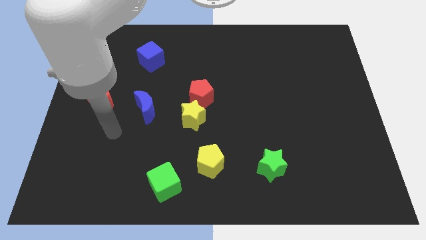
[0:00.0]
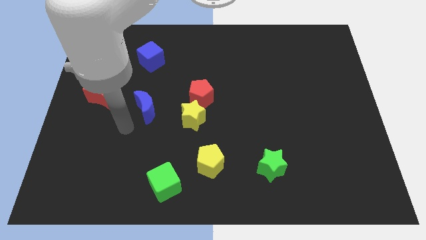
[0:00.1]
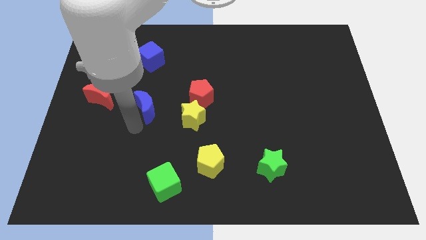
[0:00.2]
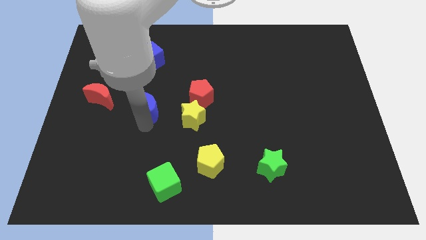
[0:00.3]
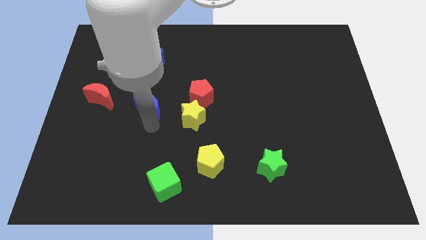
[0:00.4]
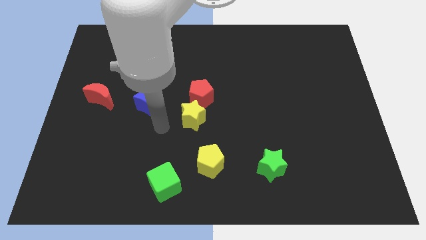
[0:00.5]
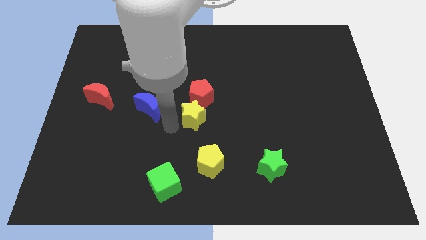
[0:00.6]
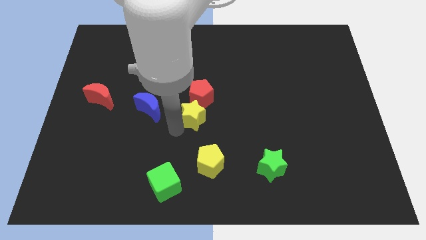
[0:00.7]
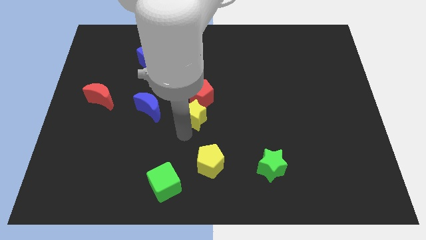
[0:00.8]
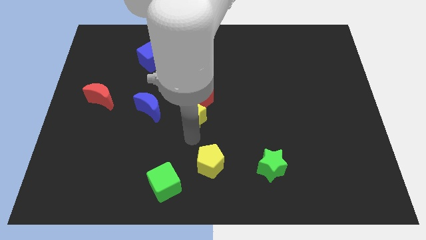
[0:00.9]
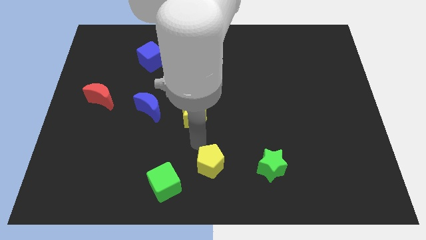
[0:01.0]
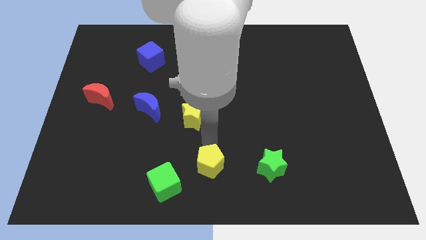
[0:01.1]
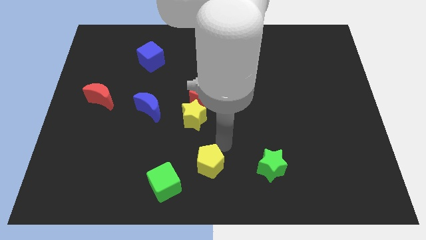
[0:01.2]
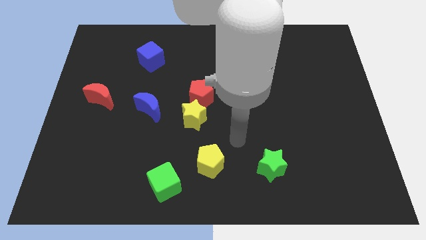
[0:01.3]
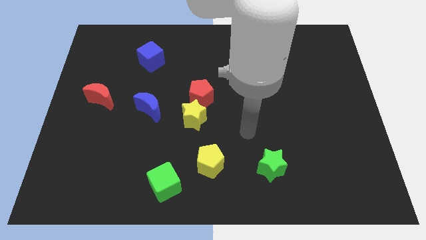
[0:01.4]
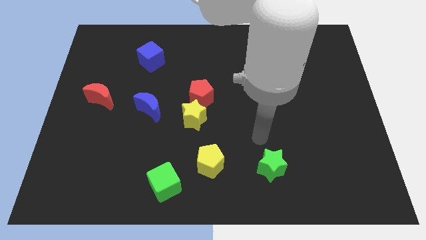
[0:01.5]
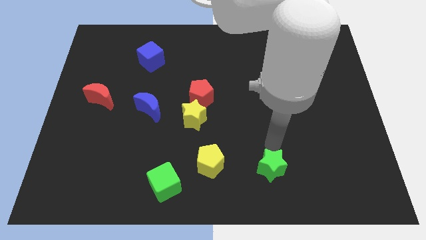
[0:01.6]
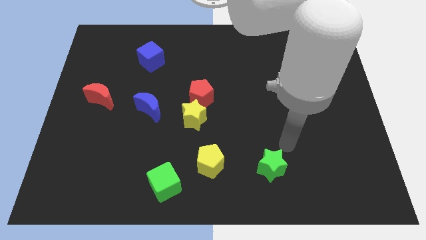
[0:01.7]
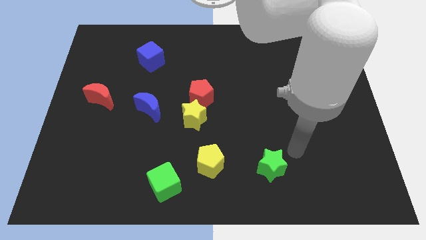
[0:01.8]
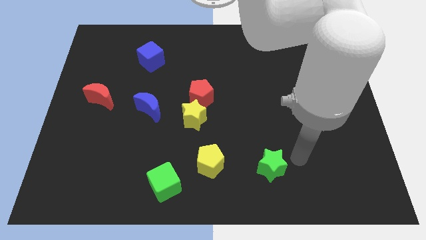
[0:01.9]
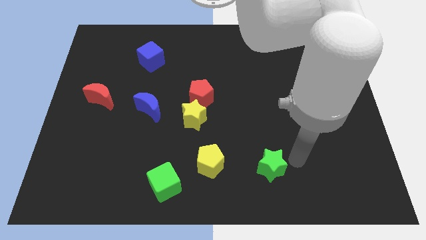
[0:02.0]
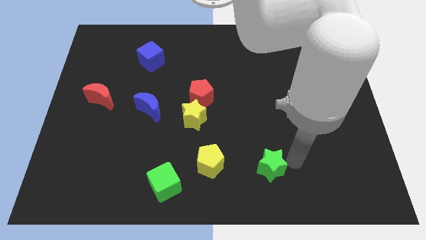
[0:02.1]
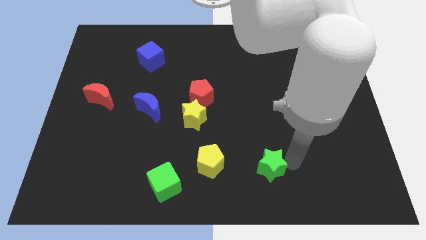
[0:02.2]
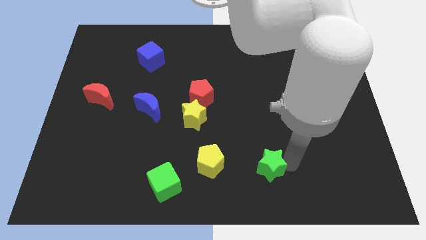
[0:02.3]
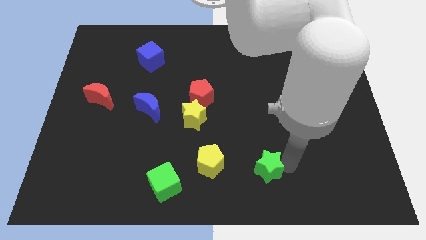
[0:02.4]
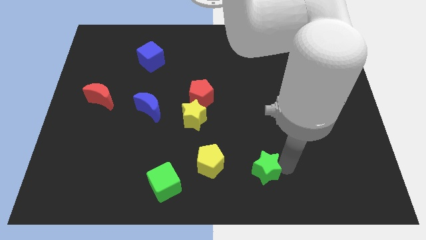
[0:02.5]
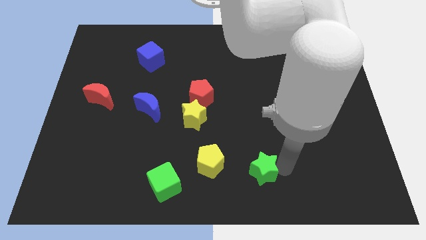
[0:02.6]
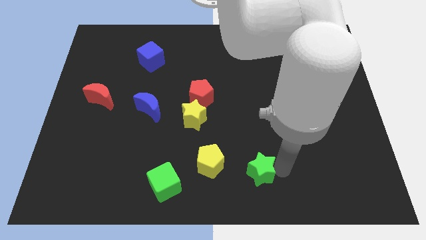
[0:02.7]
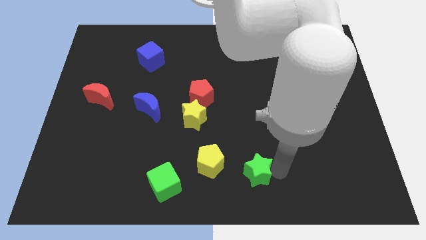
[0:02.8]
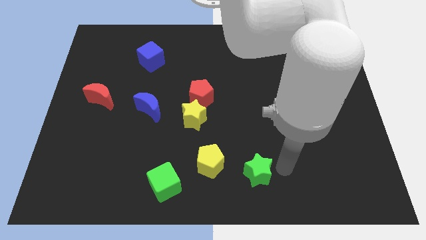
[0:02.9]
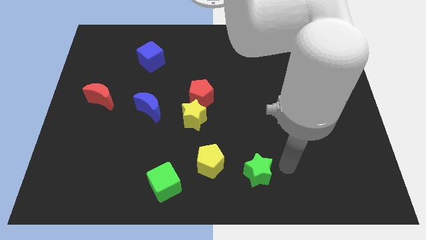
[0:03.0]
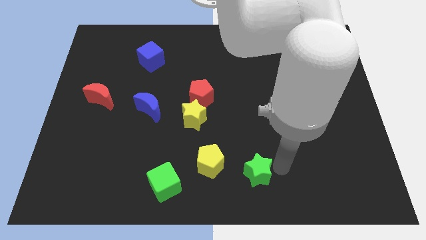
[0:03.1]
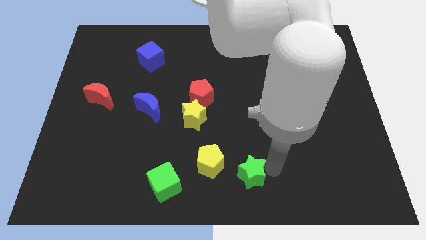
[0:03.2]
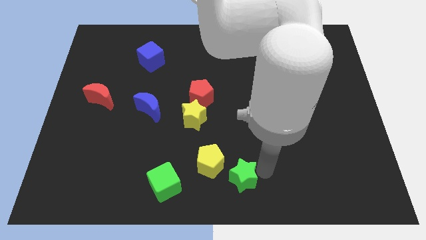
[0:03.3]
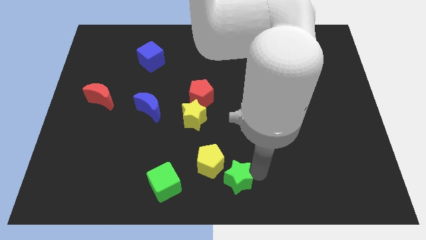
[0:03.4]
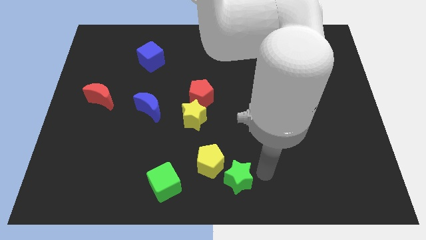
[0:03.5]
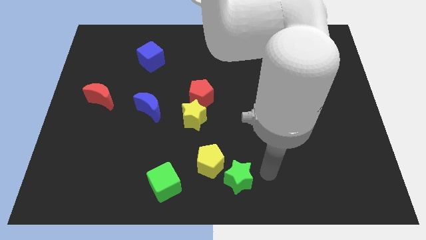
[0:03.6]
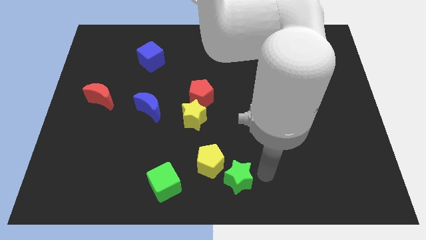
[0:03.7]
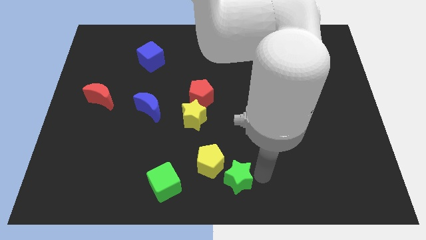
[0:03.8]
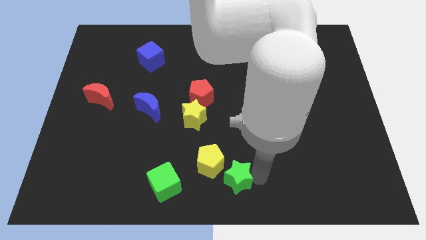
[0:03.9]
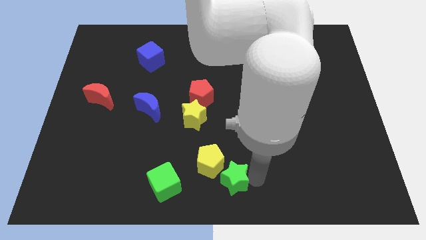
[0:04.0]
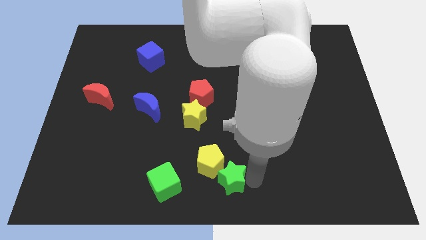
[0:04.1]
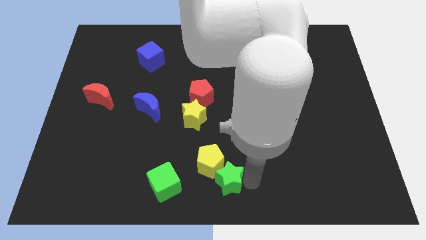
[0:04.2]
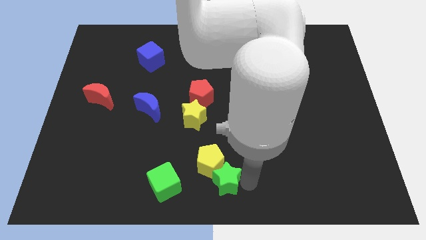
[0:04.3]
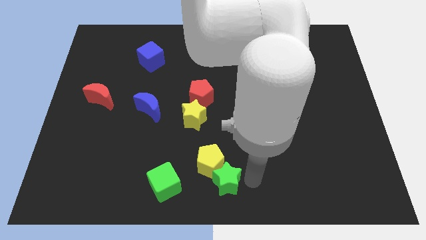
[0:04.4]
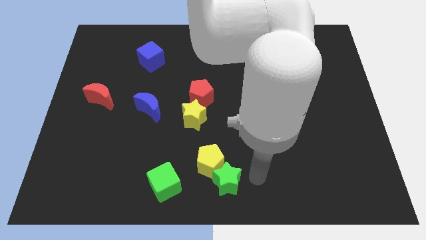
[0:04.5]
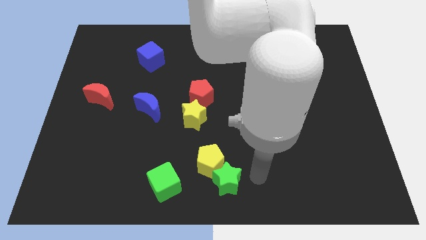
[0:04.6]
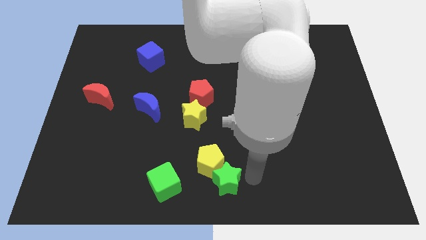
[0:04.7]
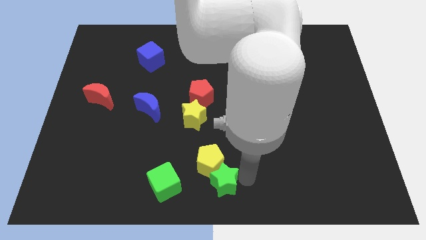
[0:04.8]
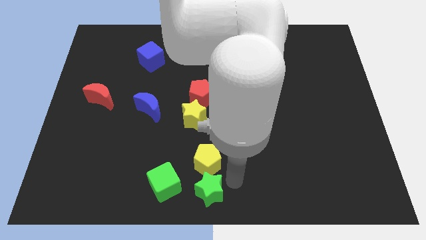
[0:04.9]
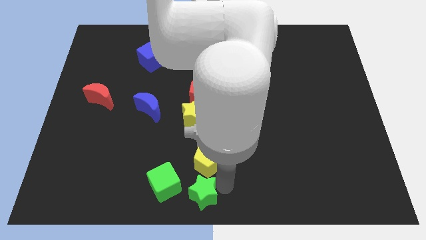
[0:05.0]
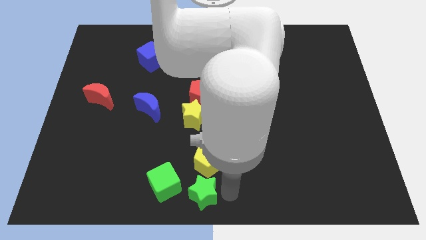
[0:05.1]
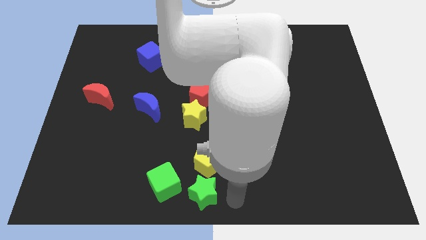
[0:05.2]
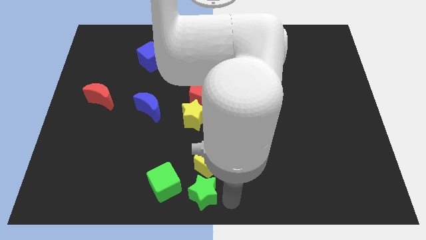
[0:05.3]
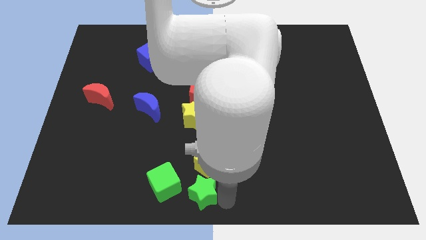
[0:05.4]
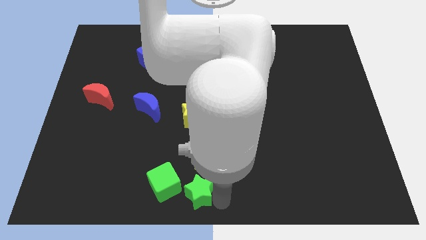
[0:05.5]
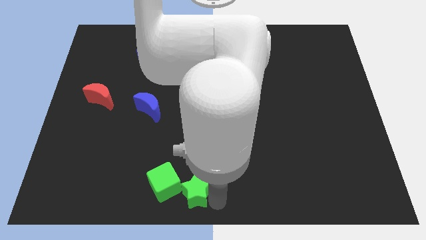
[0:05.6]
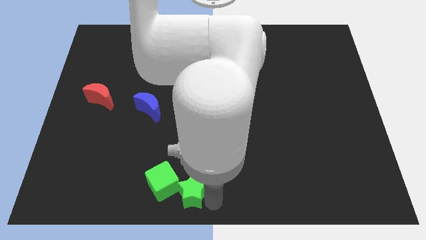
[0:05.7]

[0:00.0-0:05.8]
slide the green star close to the green cube

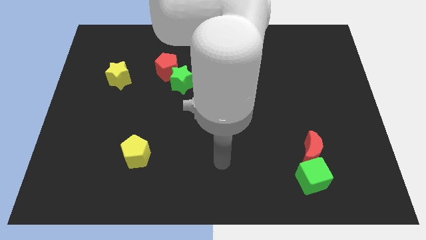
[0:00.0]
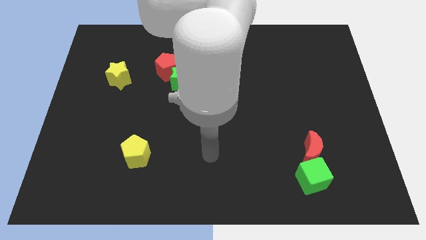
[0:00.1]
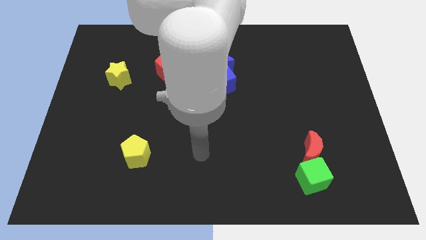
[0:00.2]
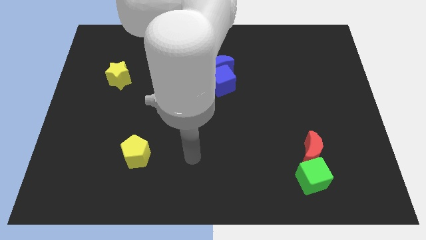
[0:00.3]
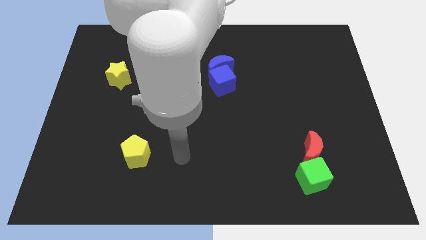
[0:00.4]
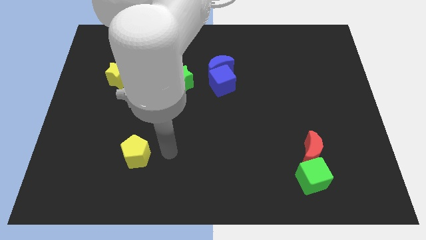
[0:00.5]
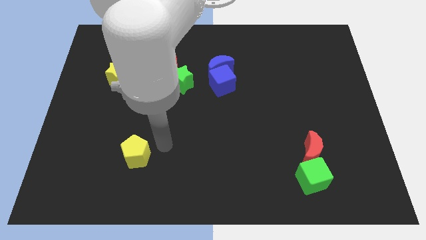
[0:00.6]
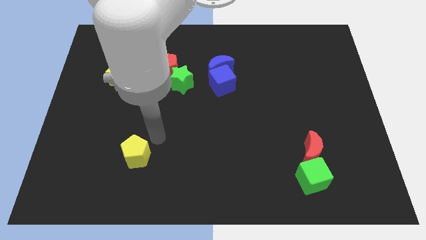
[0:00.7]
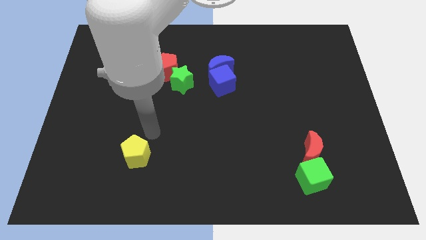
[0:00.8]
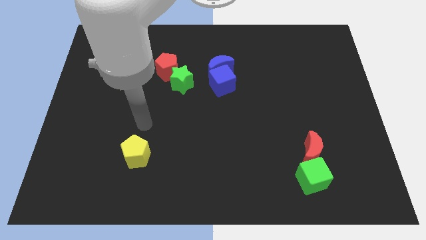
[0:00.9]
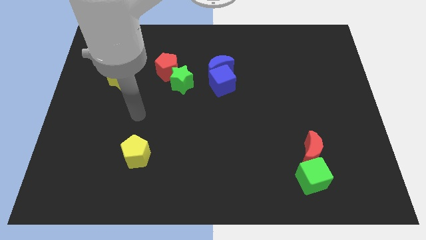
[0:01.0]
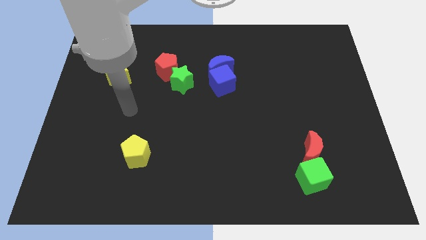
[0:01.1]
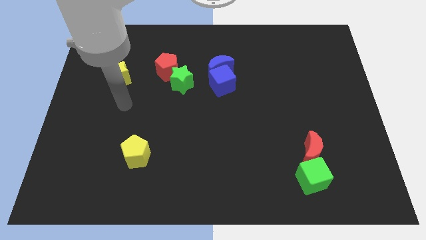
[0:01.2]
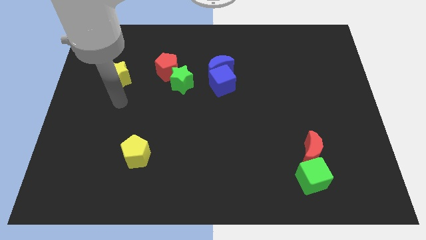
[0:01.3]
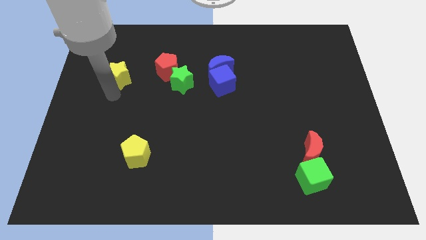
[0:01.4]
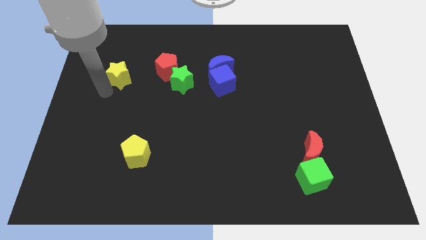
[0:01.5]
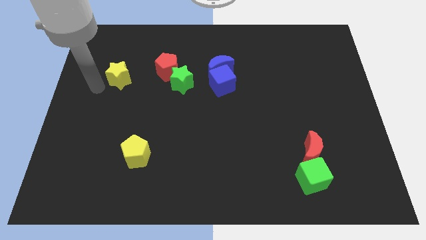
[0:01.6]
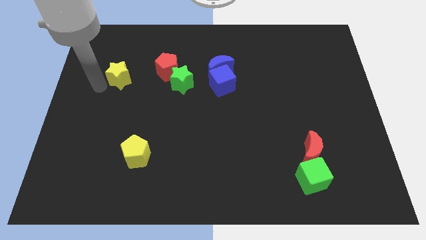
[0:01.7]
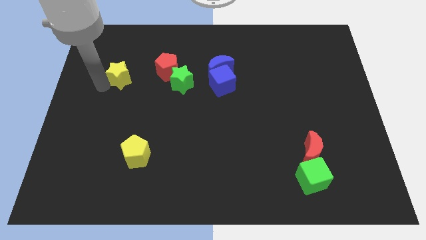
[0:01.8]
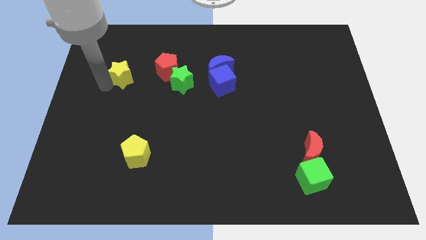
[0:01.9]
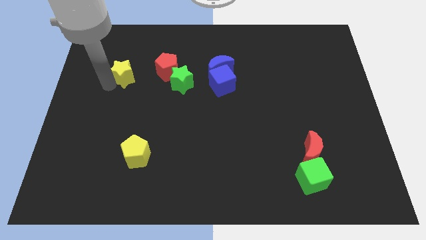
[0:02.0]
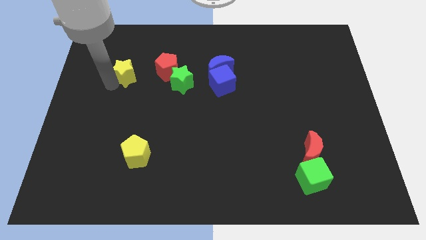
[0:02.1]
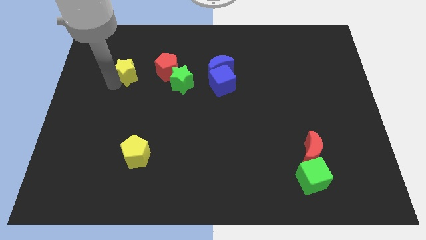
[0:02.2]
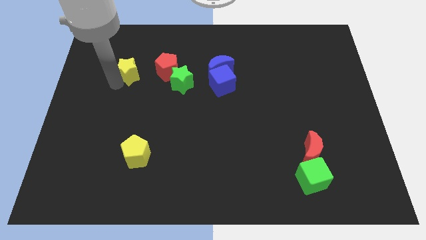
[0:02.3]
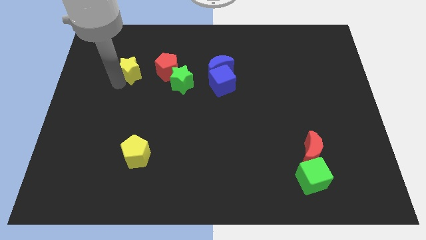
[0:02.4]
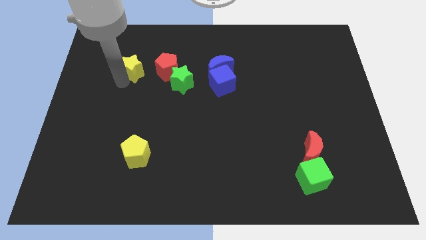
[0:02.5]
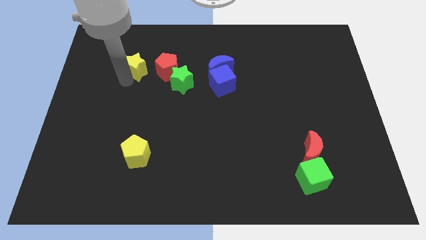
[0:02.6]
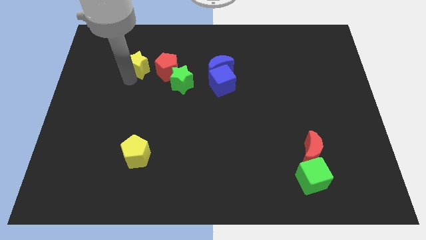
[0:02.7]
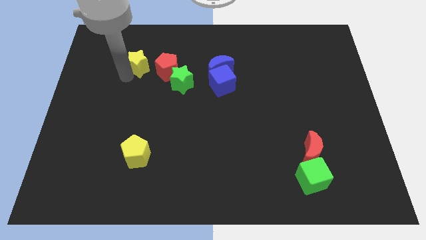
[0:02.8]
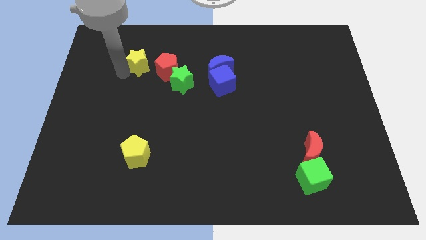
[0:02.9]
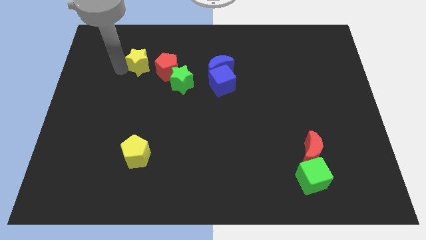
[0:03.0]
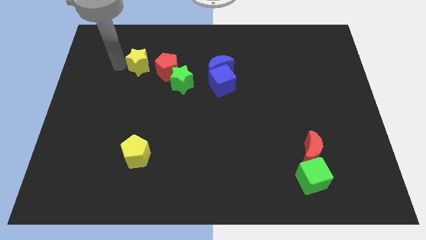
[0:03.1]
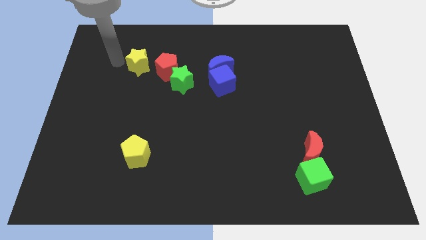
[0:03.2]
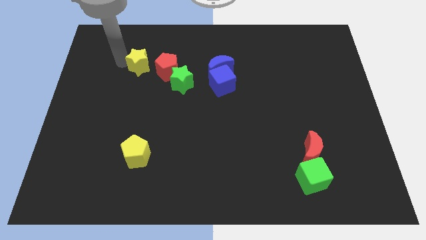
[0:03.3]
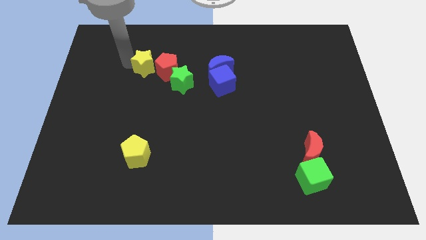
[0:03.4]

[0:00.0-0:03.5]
put the yellow star towards the red pentagon
